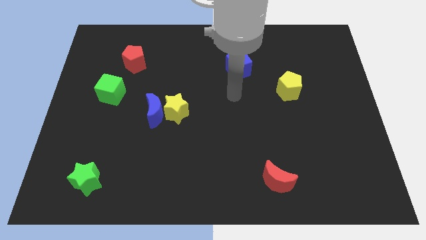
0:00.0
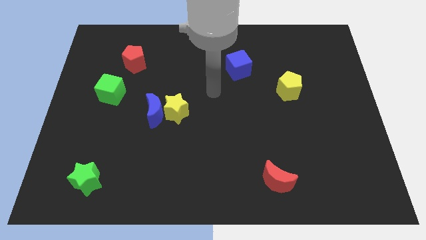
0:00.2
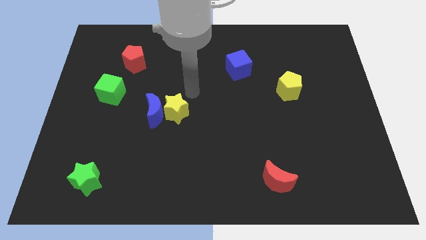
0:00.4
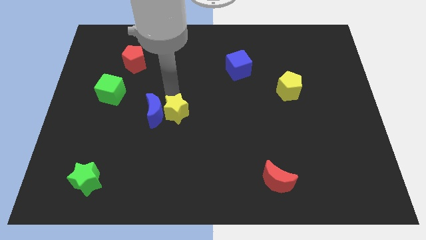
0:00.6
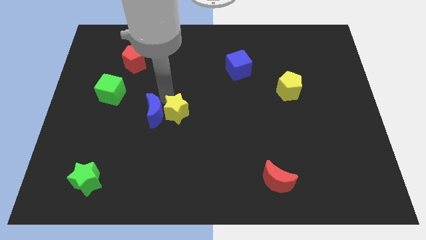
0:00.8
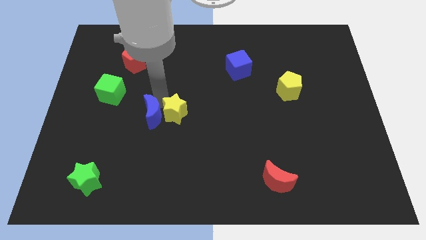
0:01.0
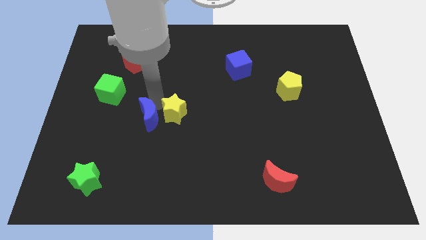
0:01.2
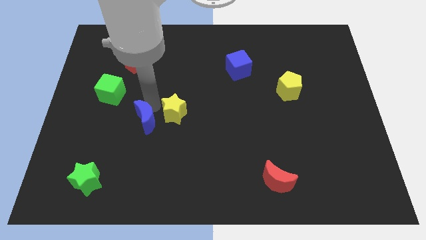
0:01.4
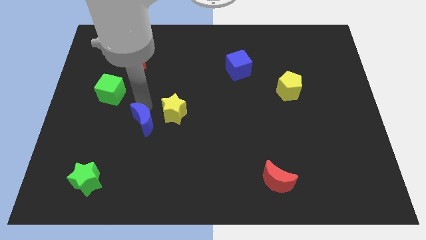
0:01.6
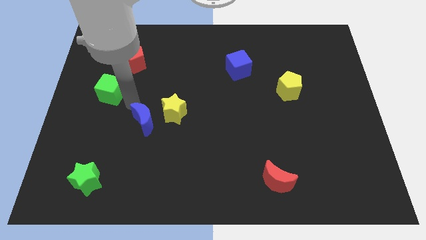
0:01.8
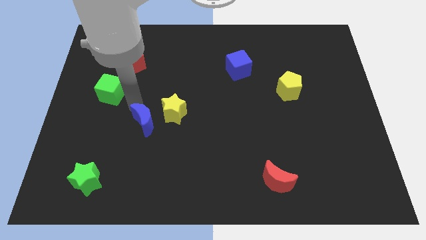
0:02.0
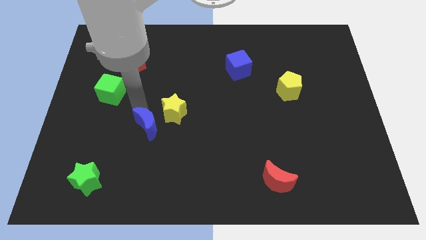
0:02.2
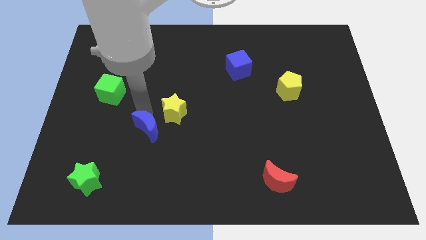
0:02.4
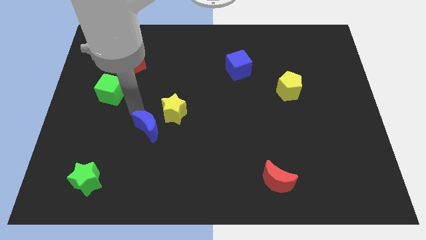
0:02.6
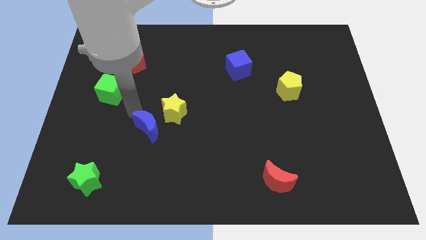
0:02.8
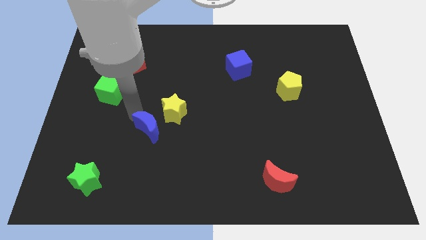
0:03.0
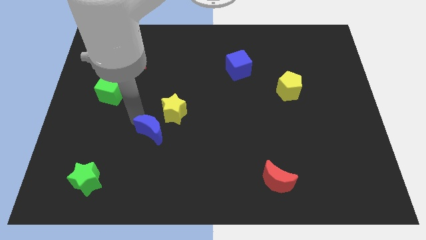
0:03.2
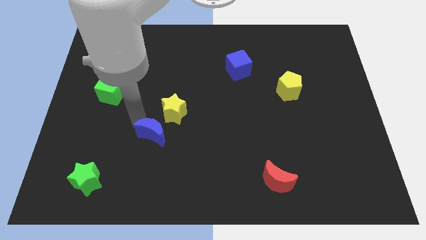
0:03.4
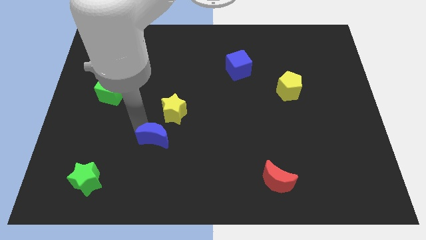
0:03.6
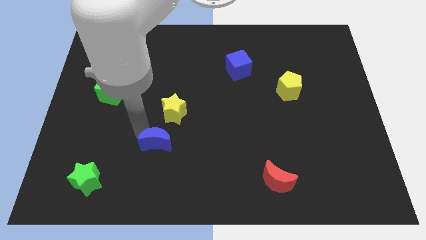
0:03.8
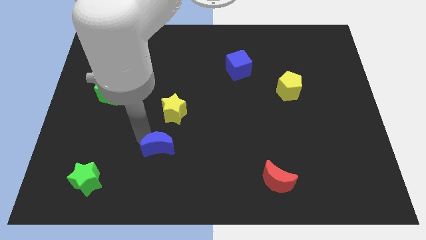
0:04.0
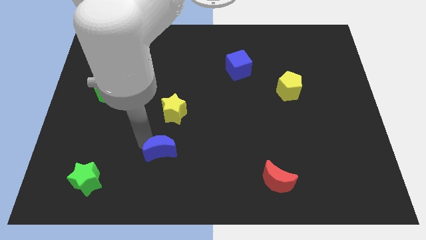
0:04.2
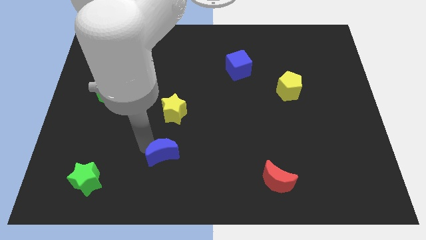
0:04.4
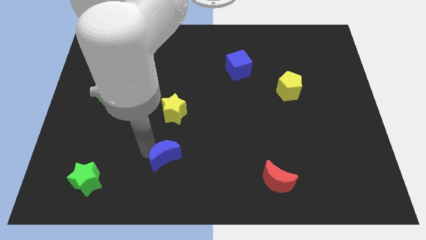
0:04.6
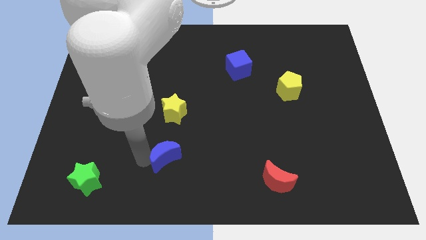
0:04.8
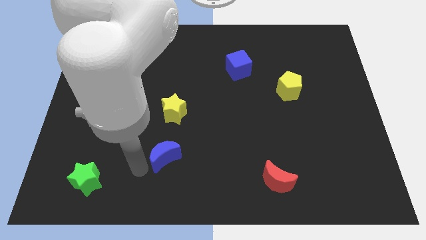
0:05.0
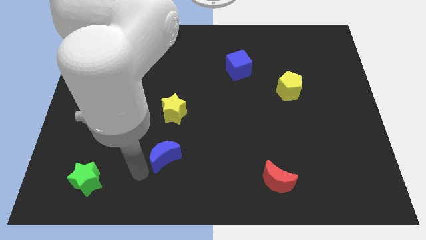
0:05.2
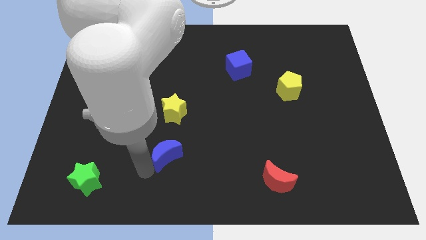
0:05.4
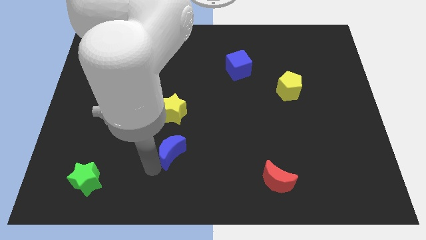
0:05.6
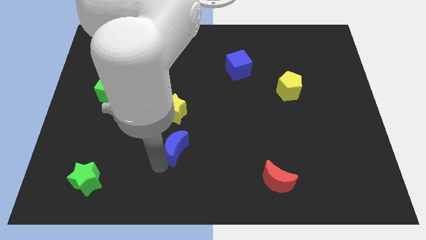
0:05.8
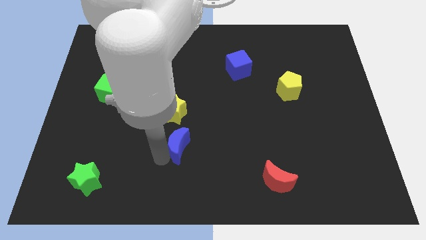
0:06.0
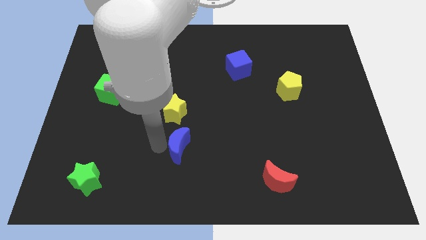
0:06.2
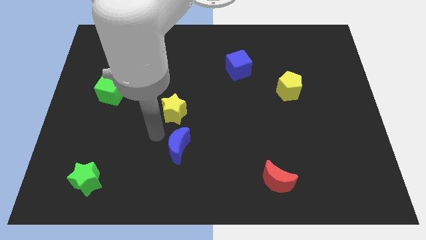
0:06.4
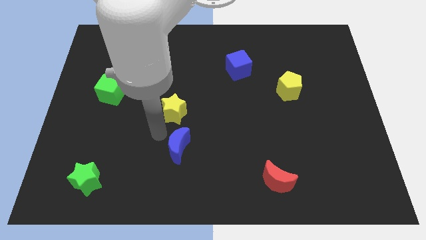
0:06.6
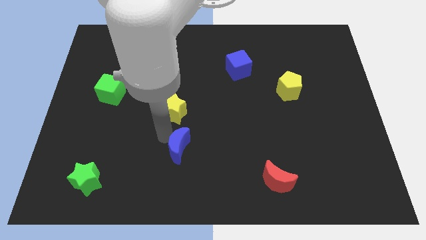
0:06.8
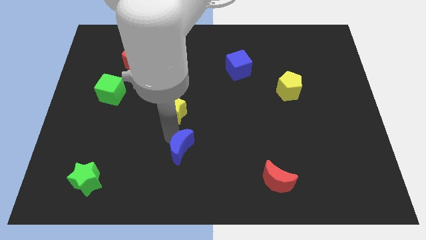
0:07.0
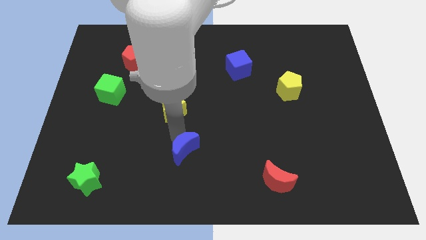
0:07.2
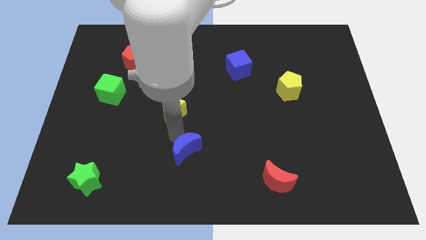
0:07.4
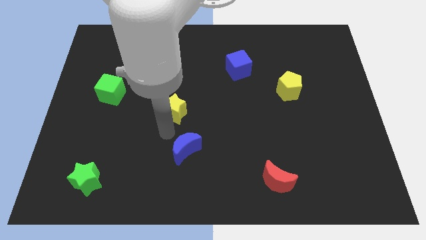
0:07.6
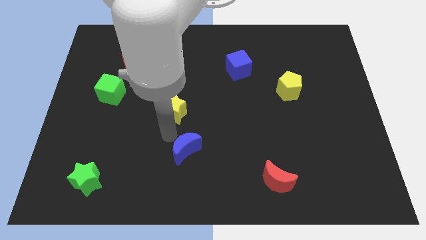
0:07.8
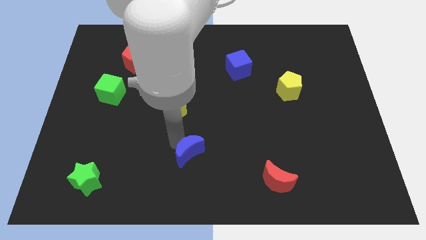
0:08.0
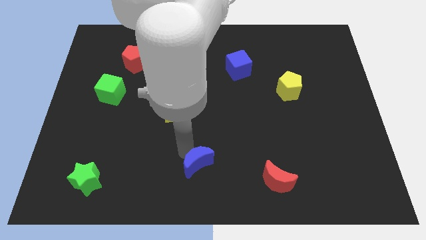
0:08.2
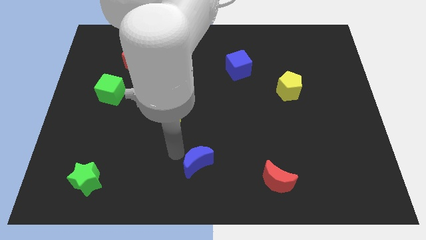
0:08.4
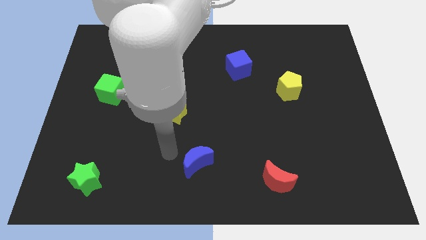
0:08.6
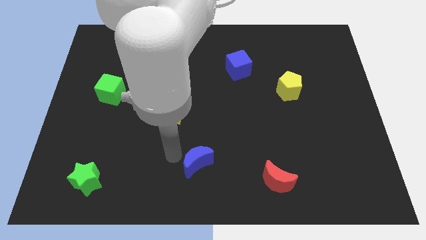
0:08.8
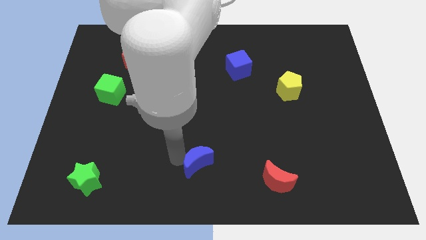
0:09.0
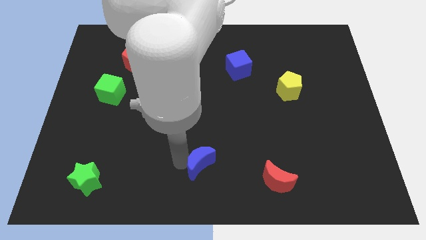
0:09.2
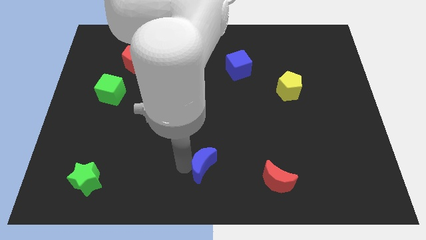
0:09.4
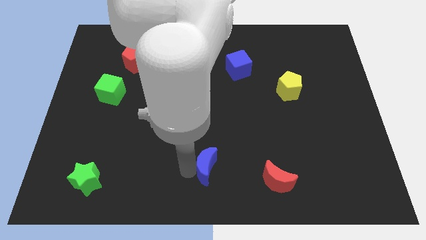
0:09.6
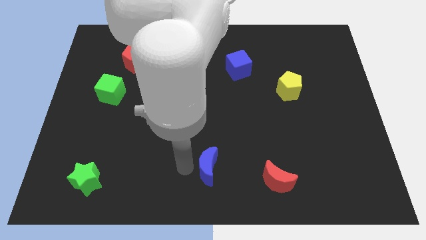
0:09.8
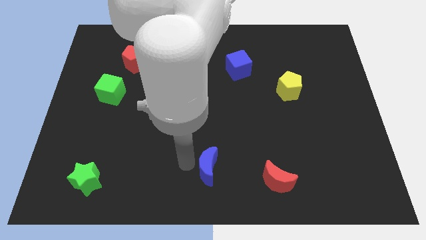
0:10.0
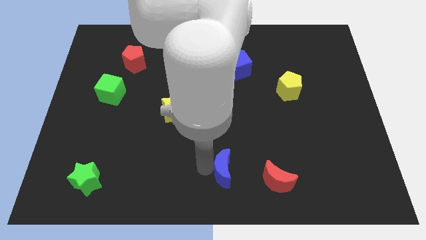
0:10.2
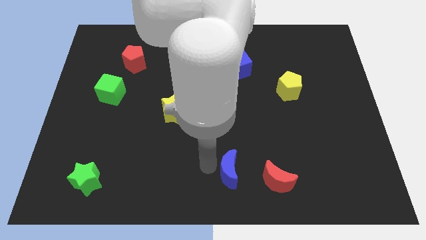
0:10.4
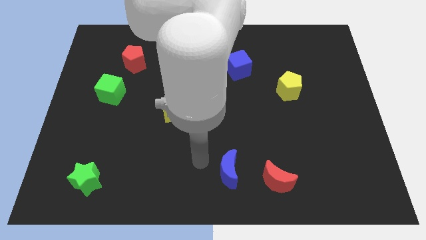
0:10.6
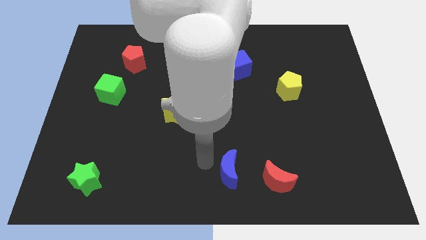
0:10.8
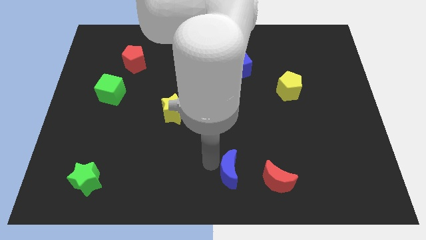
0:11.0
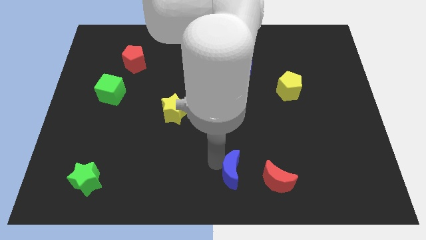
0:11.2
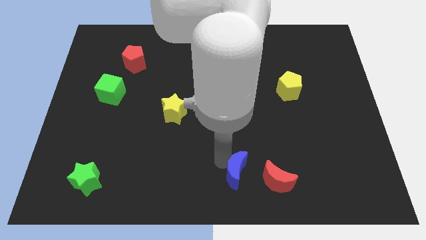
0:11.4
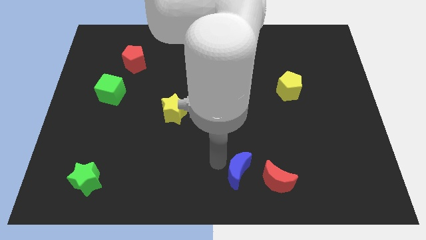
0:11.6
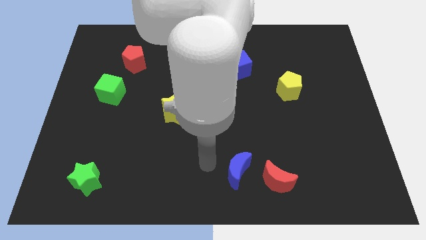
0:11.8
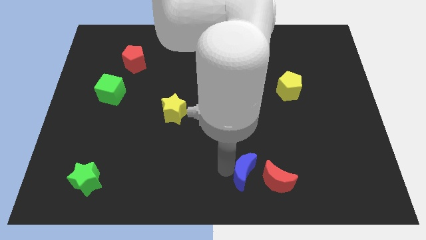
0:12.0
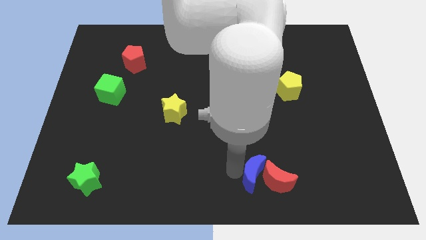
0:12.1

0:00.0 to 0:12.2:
push the blue moon next to the red moon

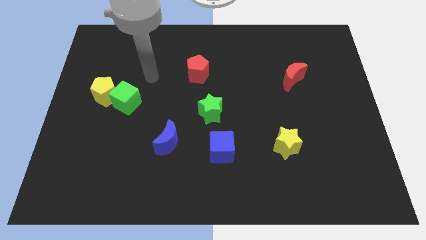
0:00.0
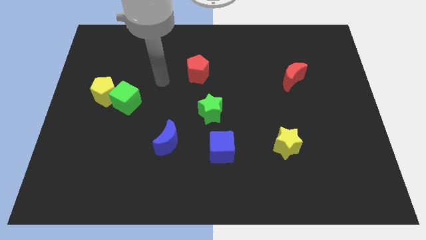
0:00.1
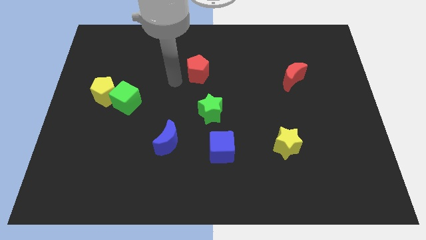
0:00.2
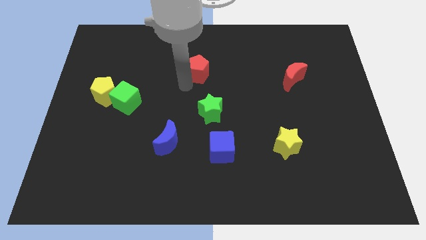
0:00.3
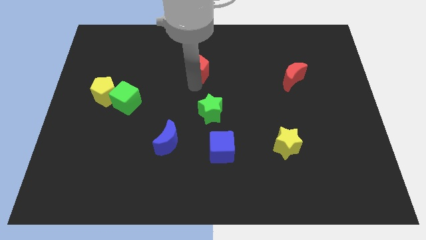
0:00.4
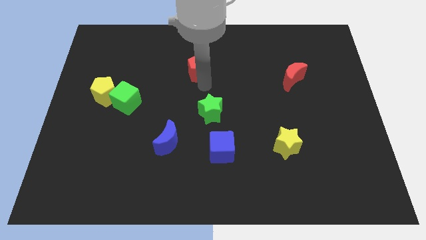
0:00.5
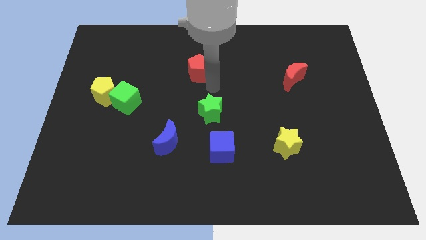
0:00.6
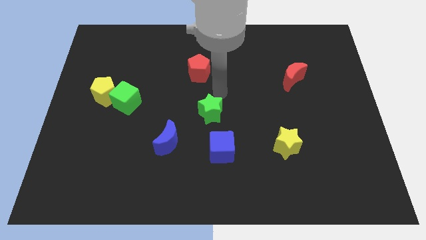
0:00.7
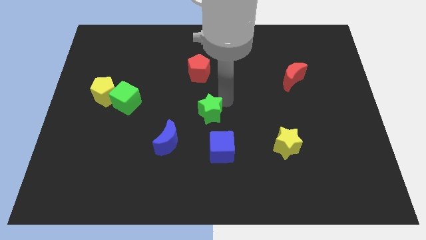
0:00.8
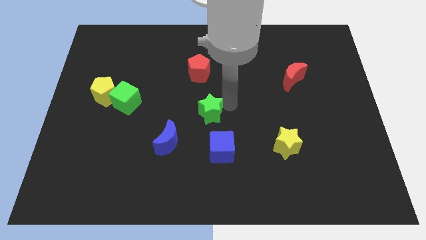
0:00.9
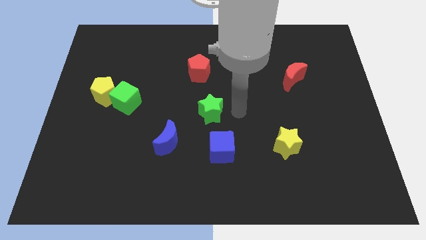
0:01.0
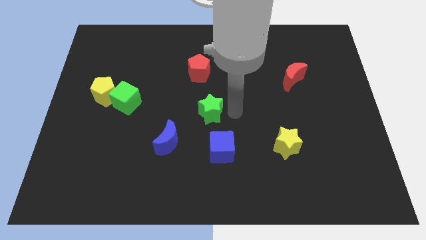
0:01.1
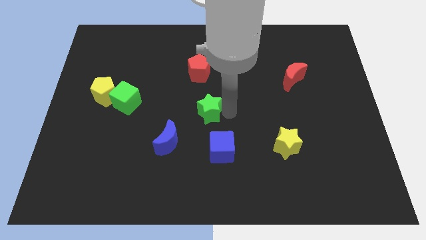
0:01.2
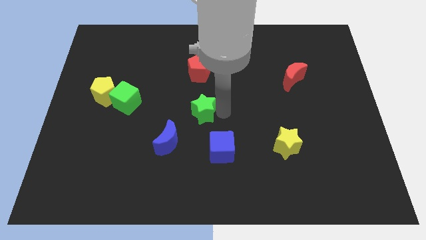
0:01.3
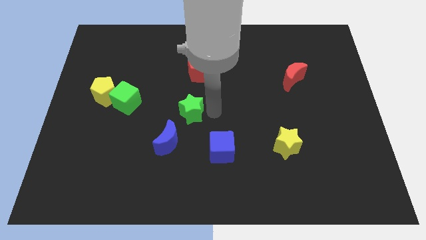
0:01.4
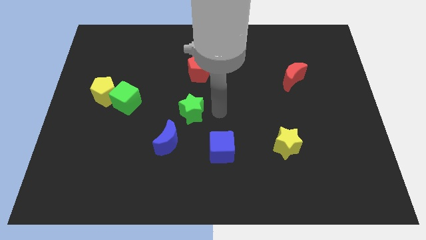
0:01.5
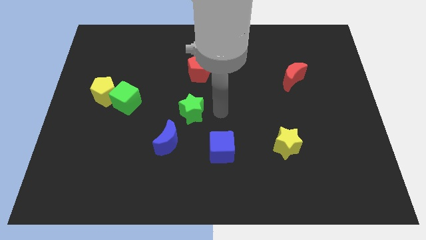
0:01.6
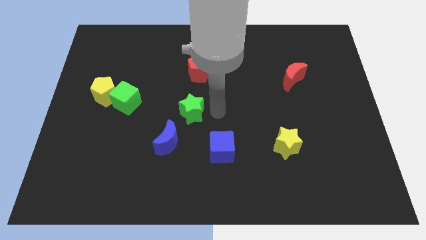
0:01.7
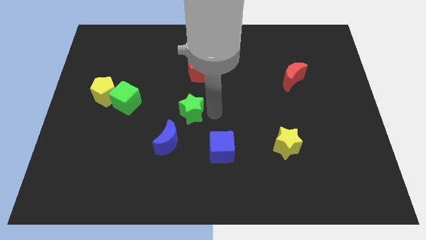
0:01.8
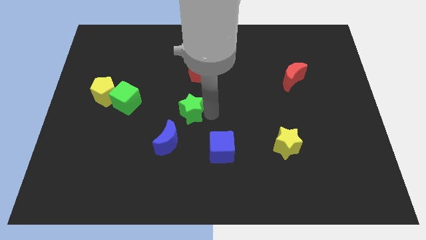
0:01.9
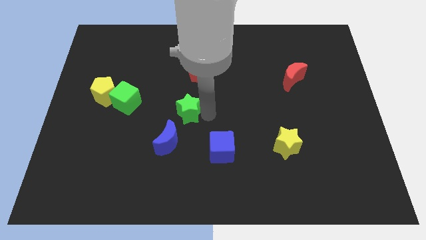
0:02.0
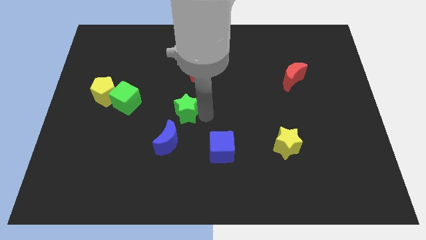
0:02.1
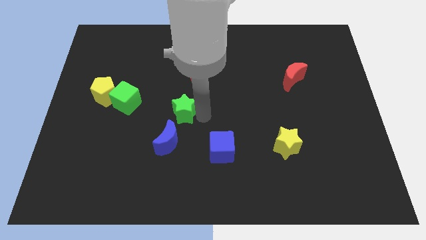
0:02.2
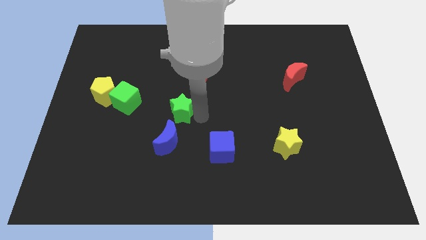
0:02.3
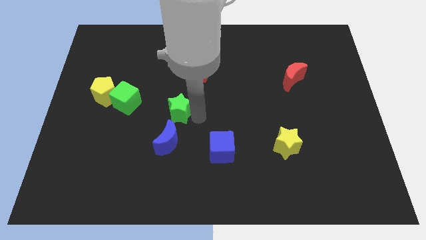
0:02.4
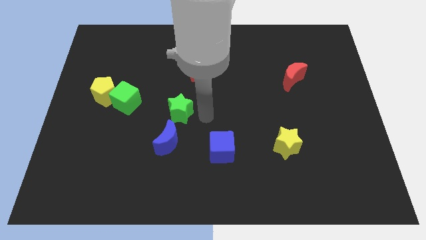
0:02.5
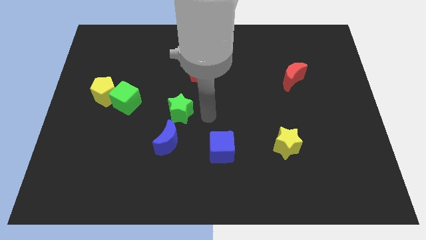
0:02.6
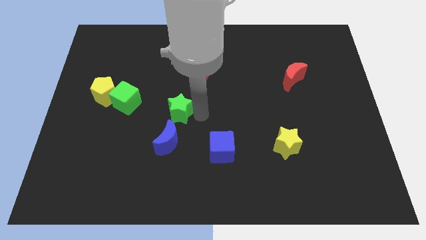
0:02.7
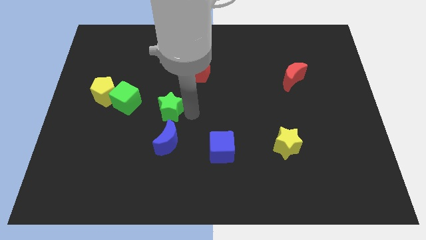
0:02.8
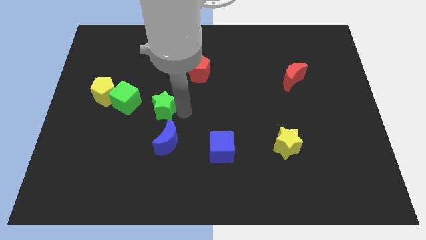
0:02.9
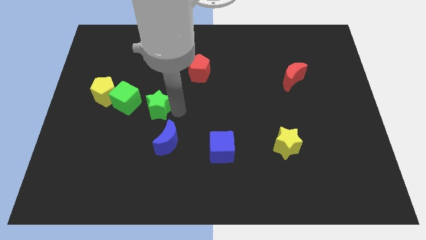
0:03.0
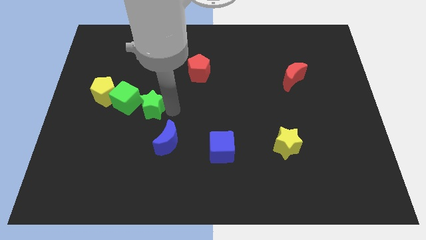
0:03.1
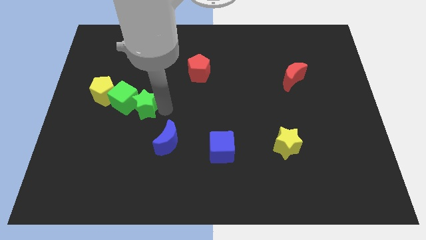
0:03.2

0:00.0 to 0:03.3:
push the green star to the green cube
